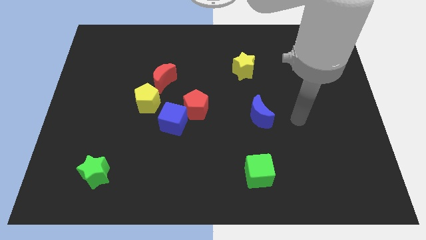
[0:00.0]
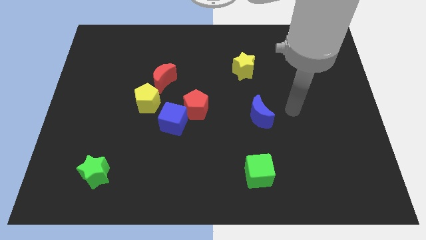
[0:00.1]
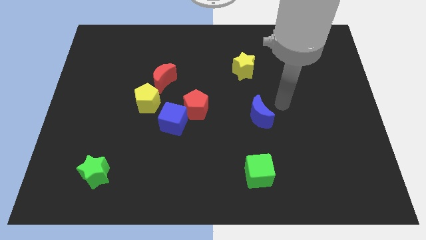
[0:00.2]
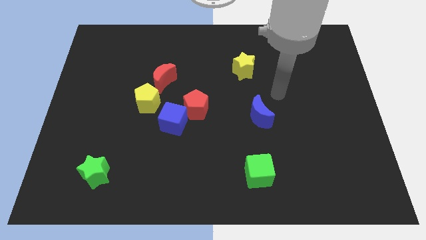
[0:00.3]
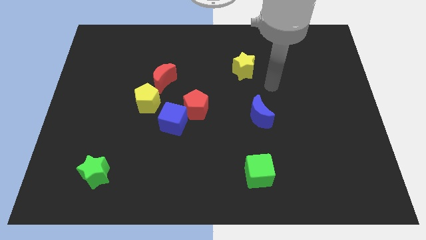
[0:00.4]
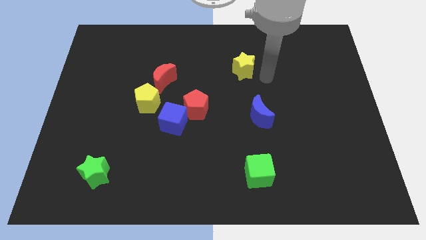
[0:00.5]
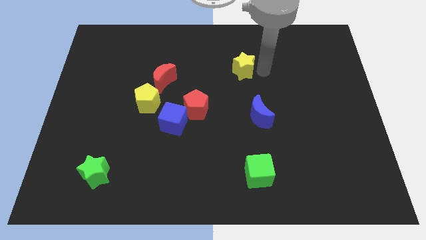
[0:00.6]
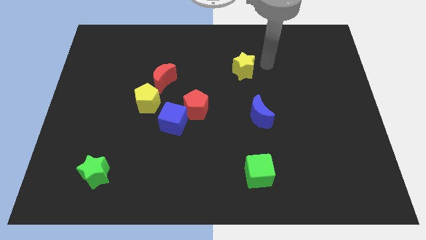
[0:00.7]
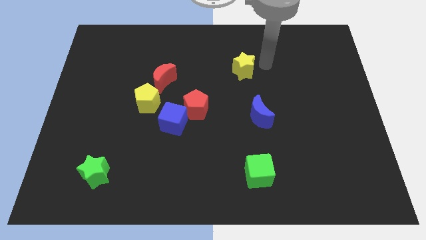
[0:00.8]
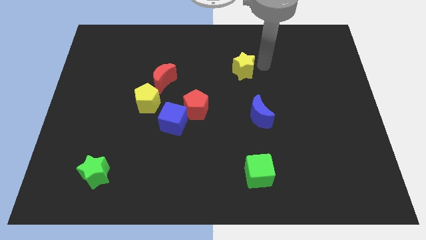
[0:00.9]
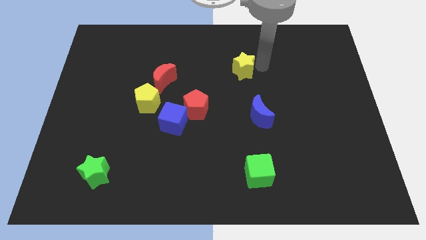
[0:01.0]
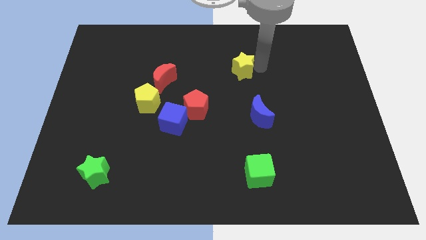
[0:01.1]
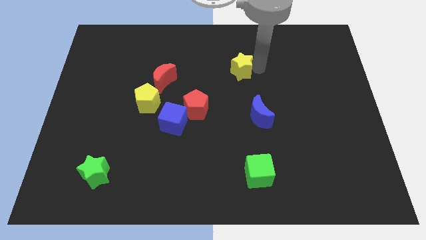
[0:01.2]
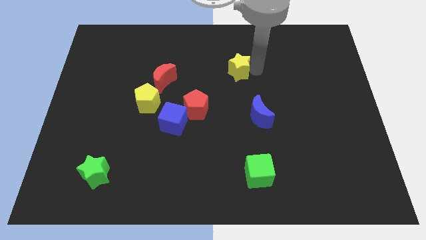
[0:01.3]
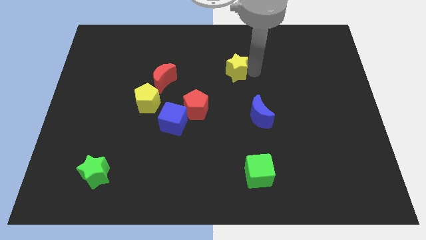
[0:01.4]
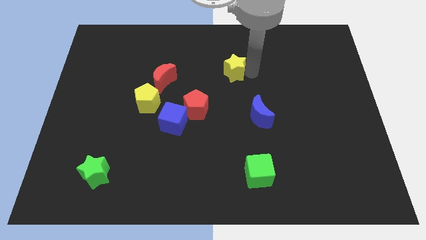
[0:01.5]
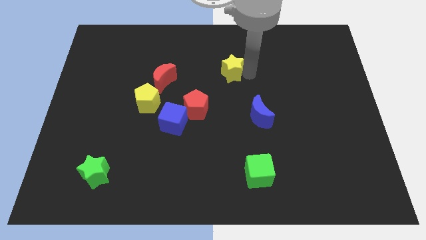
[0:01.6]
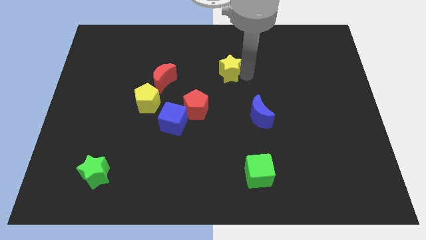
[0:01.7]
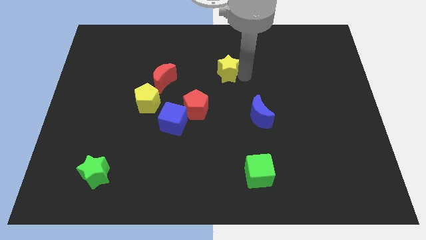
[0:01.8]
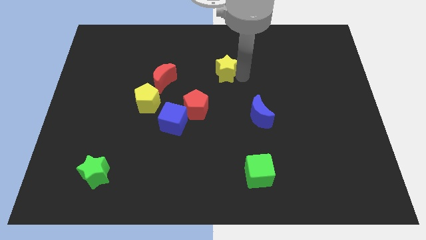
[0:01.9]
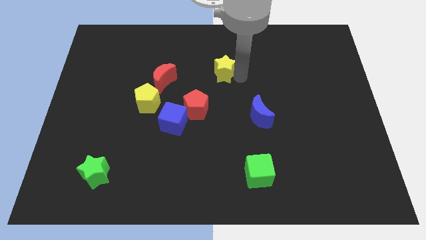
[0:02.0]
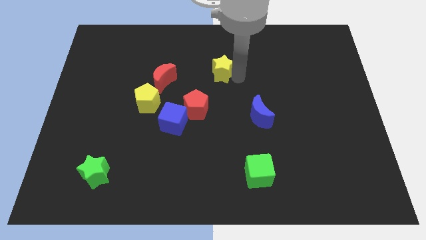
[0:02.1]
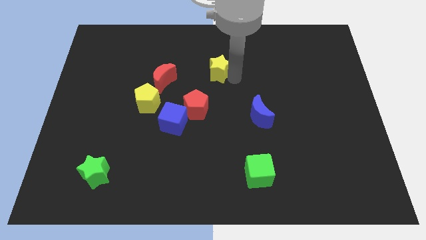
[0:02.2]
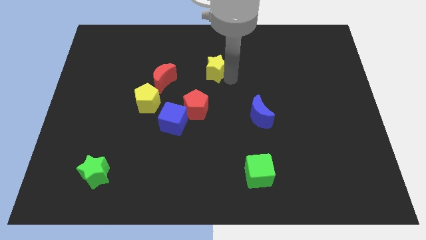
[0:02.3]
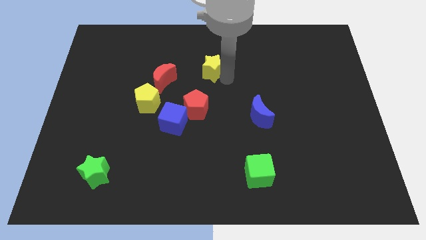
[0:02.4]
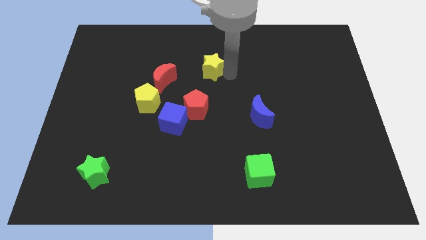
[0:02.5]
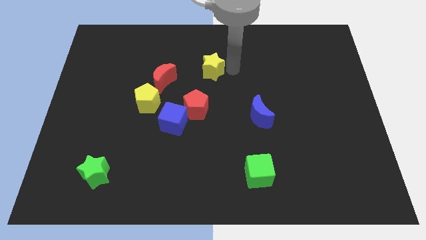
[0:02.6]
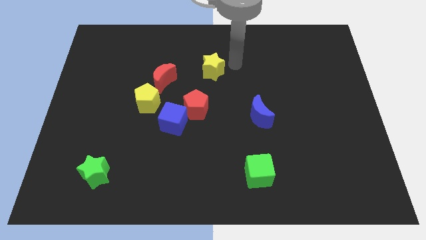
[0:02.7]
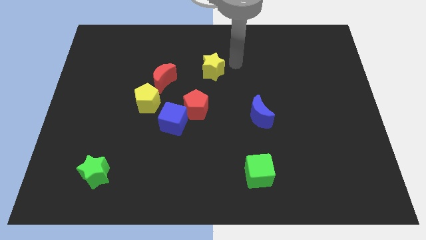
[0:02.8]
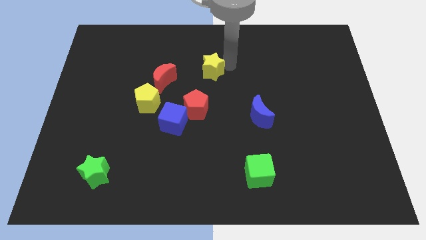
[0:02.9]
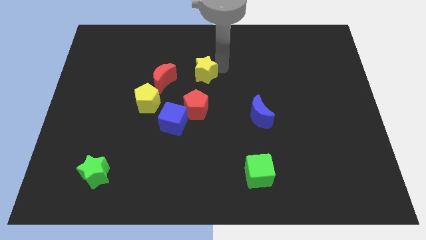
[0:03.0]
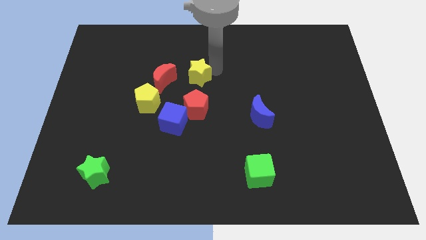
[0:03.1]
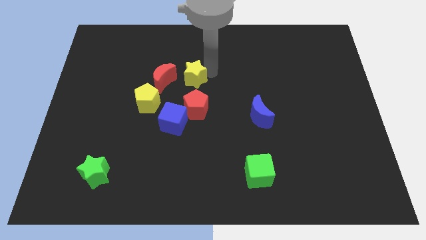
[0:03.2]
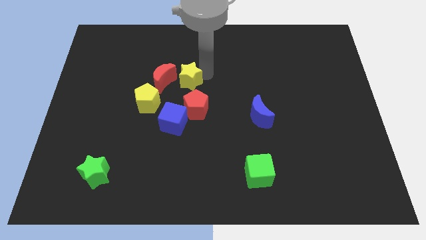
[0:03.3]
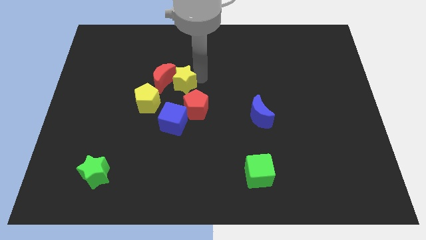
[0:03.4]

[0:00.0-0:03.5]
put the yellow star towards the red moon

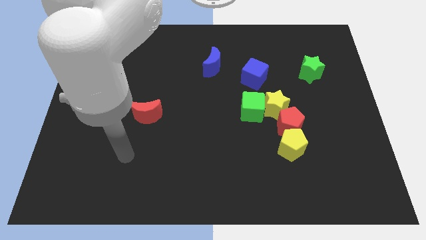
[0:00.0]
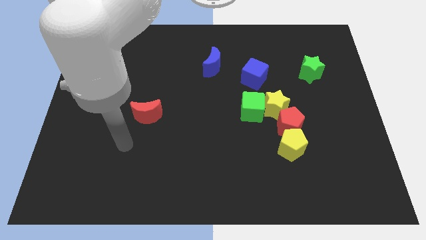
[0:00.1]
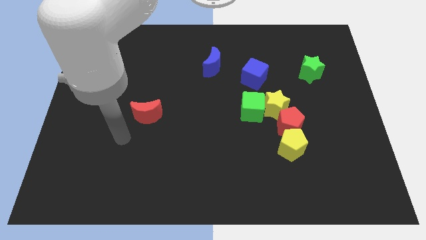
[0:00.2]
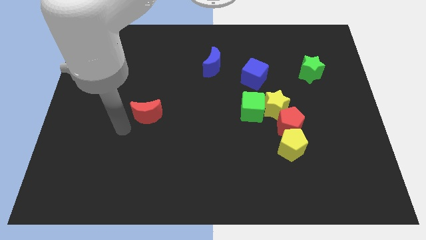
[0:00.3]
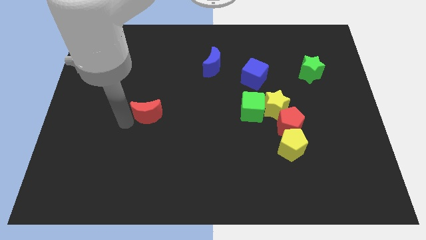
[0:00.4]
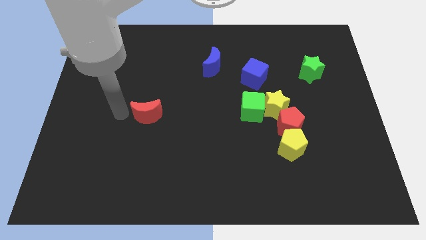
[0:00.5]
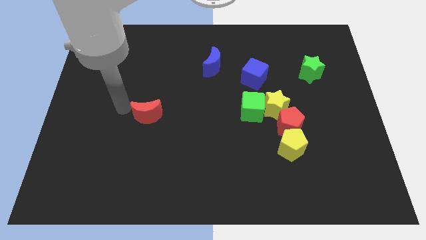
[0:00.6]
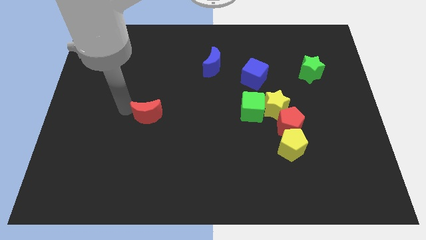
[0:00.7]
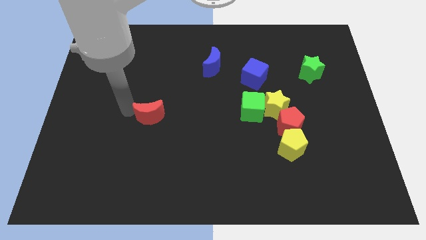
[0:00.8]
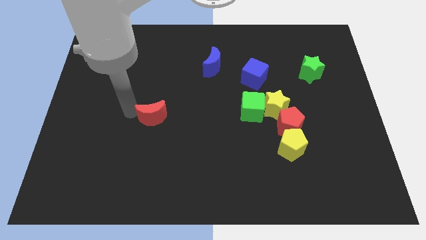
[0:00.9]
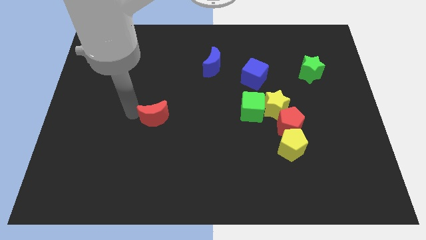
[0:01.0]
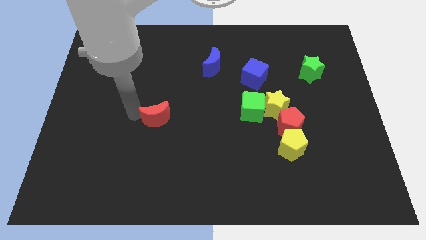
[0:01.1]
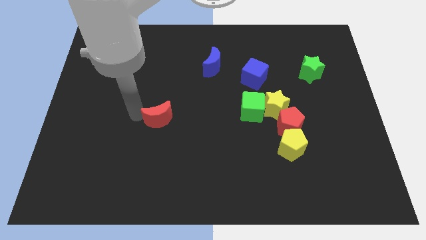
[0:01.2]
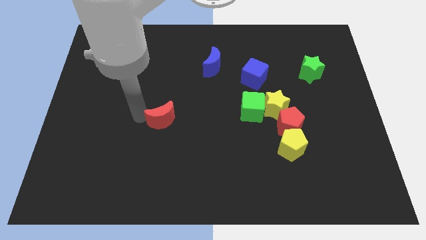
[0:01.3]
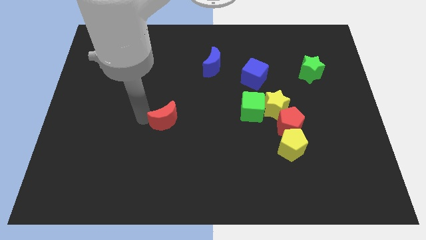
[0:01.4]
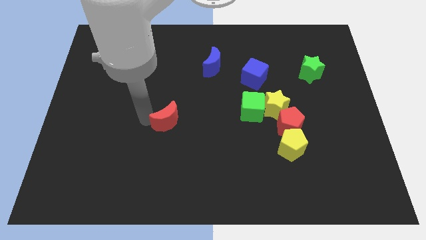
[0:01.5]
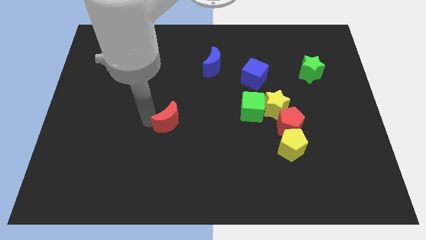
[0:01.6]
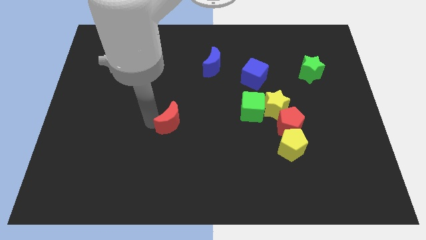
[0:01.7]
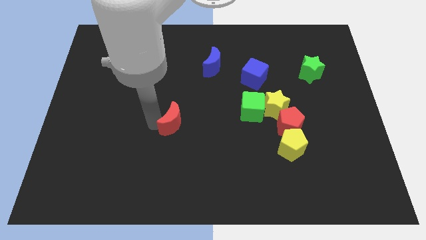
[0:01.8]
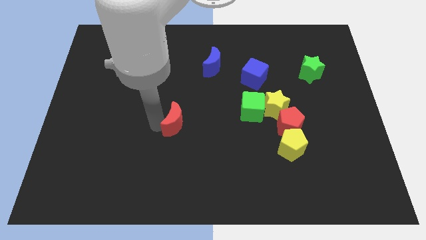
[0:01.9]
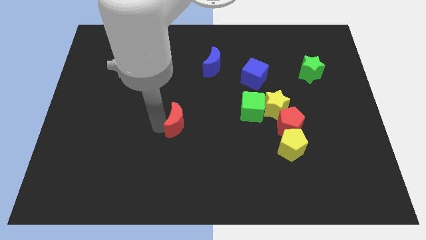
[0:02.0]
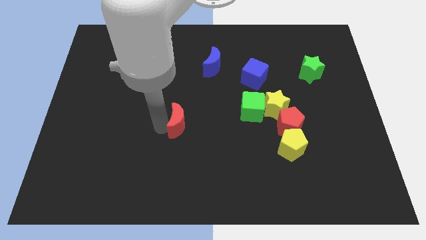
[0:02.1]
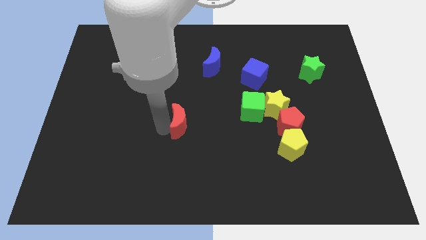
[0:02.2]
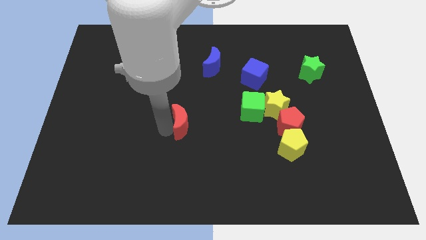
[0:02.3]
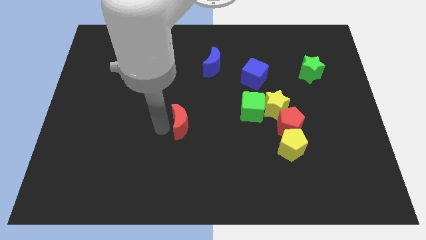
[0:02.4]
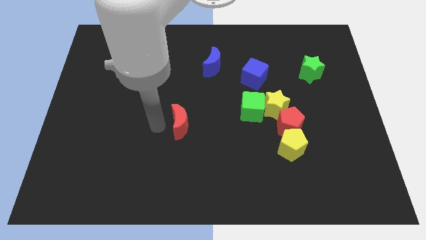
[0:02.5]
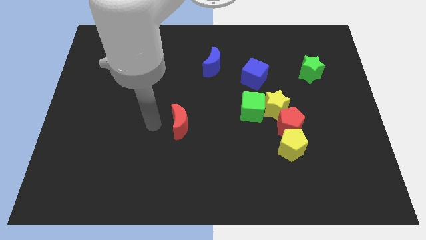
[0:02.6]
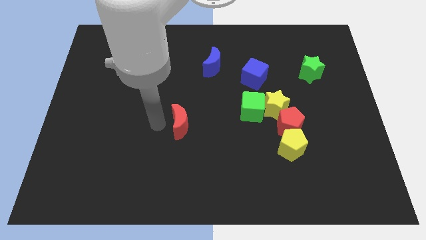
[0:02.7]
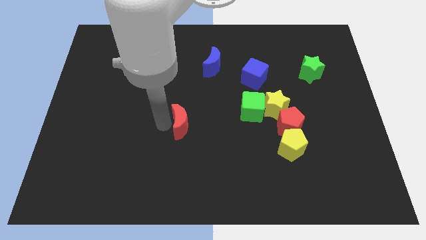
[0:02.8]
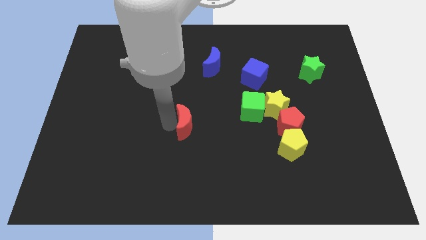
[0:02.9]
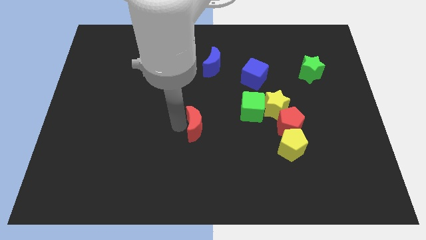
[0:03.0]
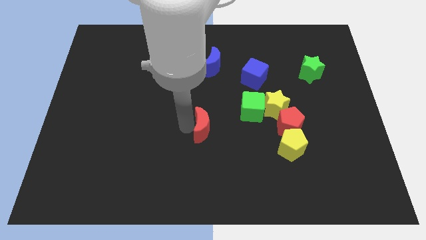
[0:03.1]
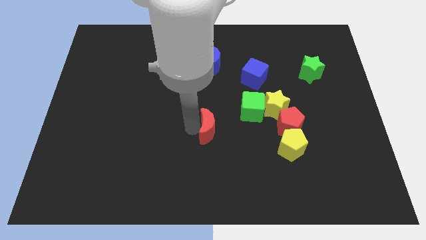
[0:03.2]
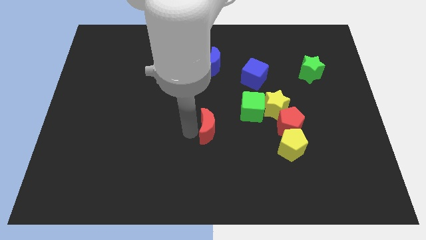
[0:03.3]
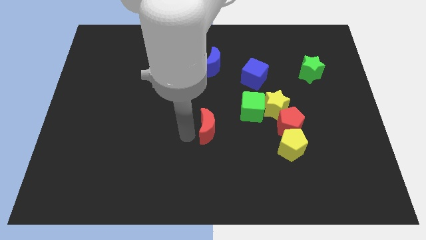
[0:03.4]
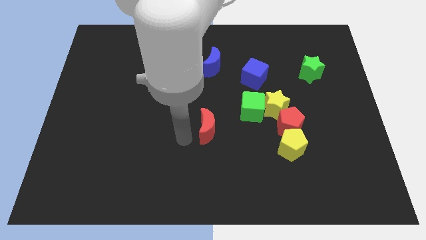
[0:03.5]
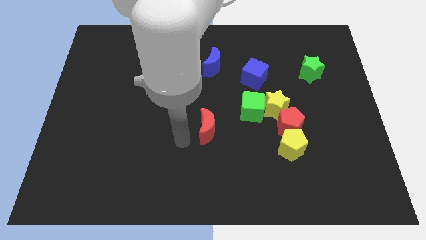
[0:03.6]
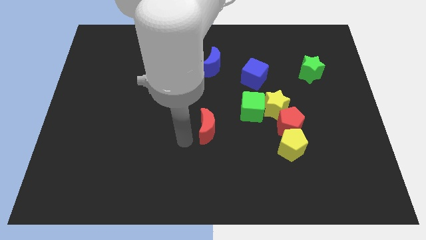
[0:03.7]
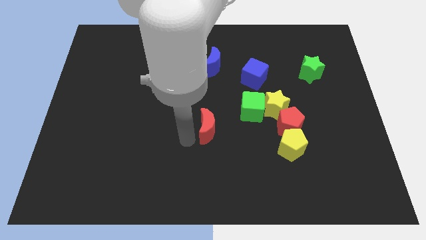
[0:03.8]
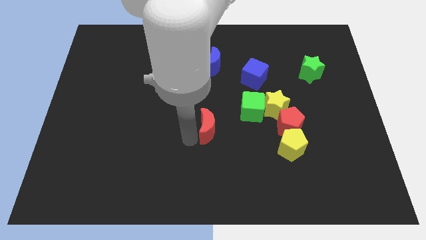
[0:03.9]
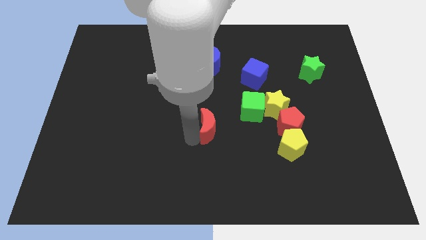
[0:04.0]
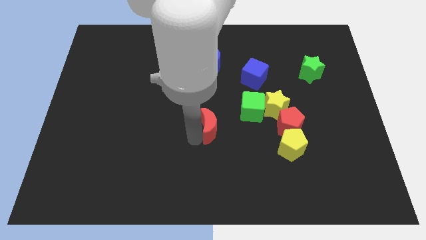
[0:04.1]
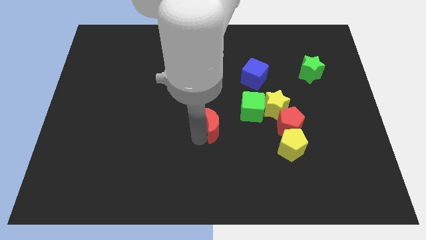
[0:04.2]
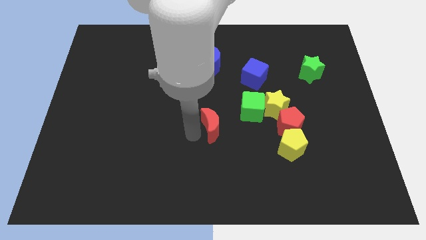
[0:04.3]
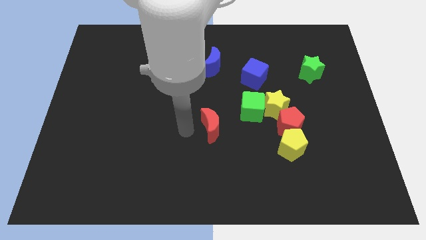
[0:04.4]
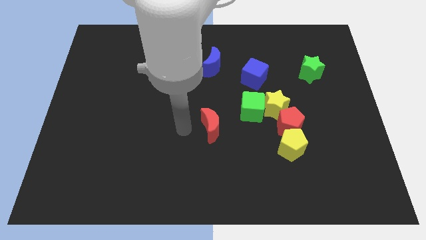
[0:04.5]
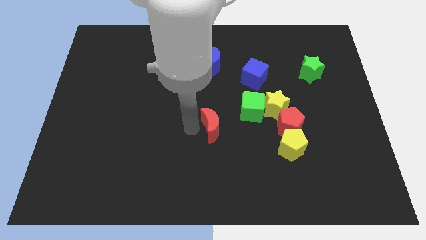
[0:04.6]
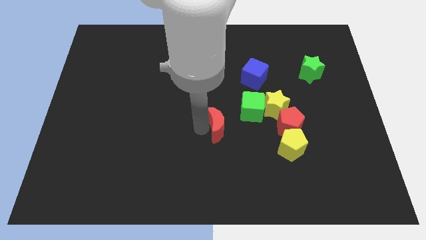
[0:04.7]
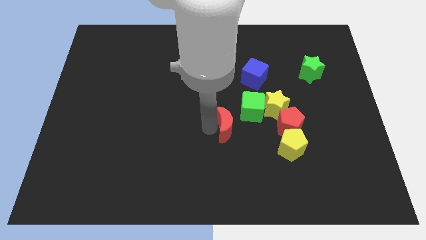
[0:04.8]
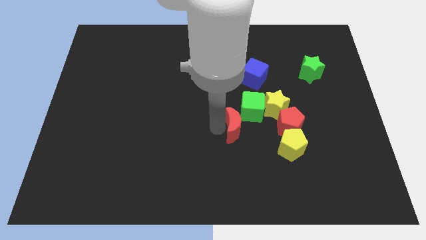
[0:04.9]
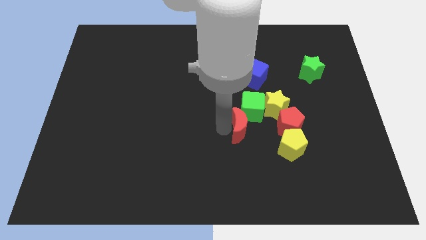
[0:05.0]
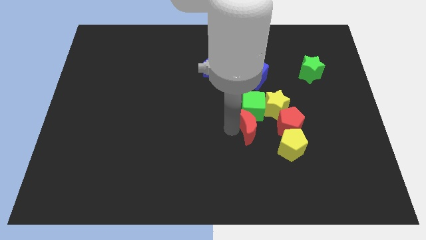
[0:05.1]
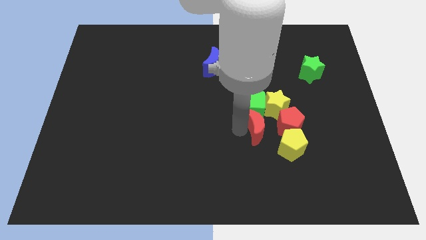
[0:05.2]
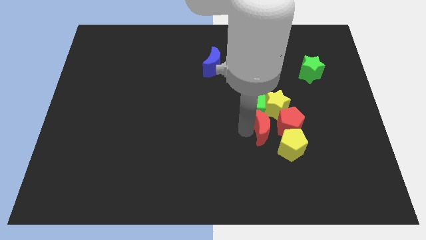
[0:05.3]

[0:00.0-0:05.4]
slide the red moon to the red pentagon
